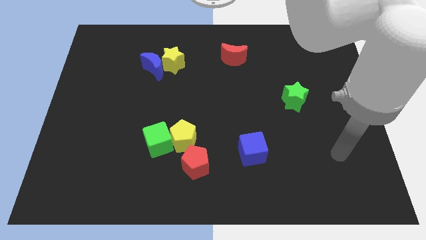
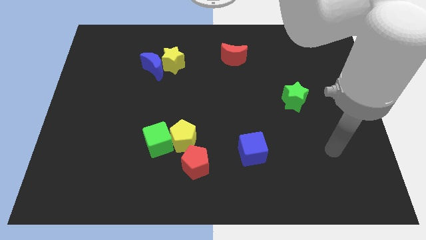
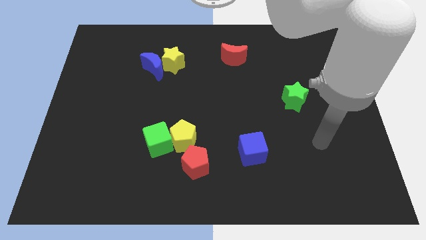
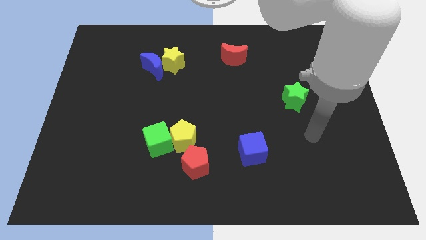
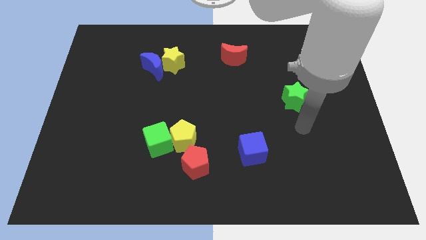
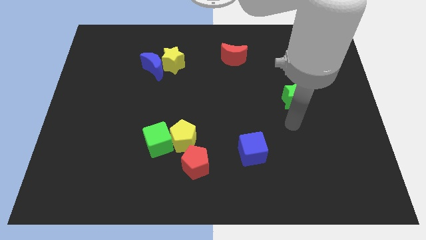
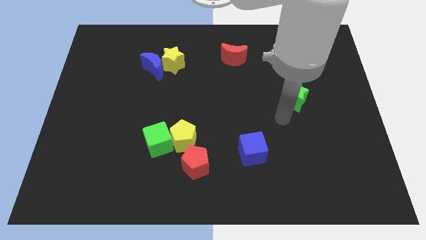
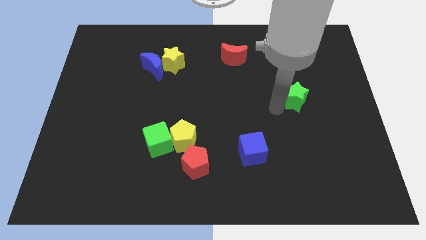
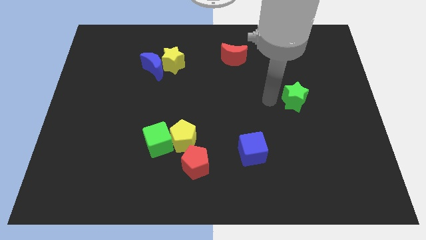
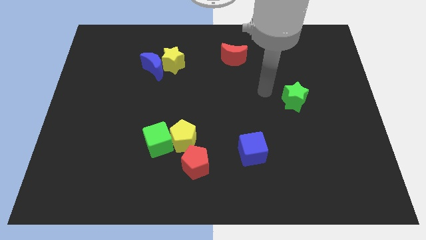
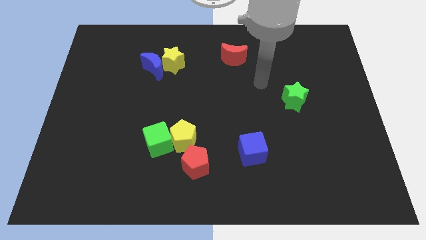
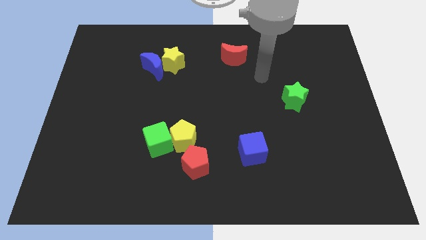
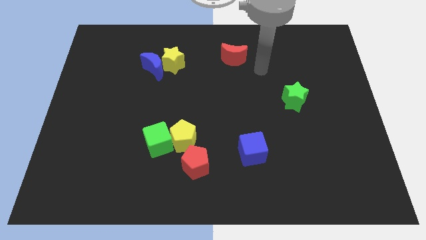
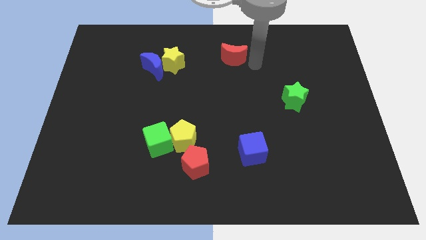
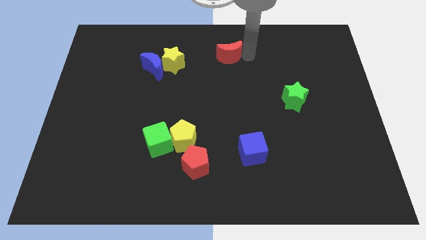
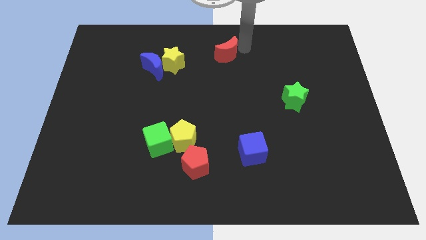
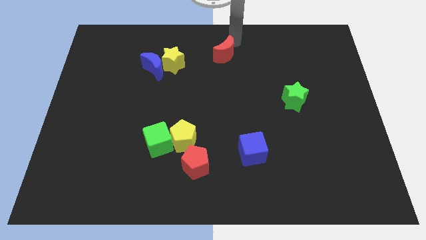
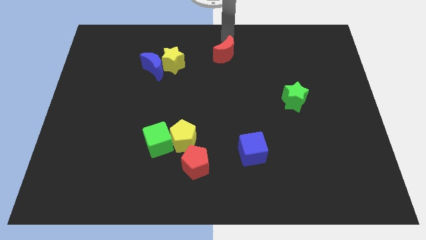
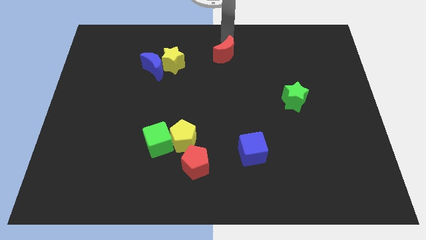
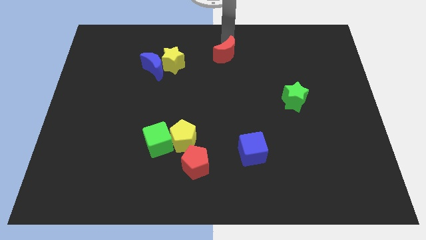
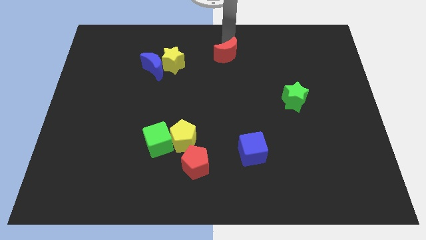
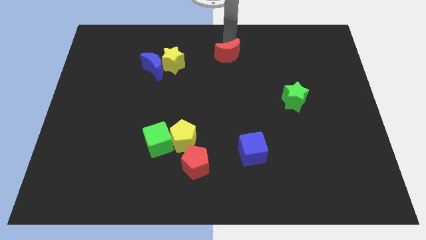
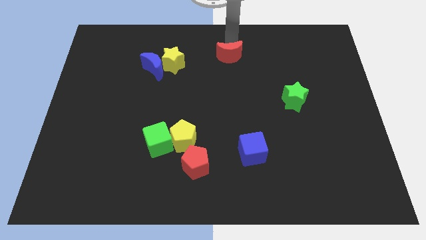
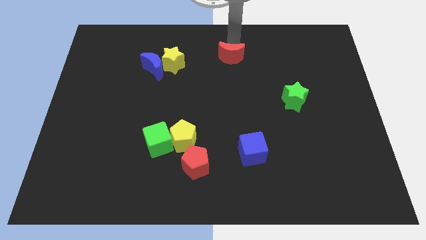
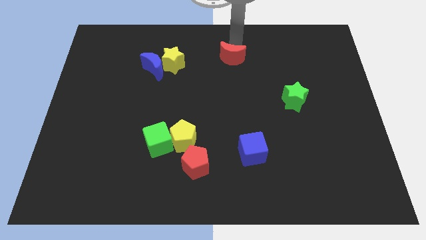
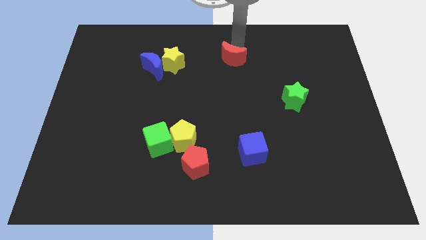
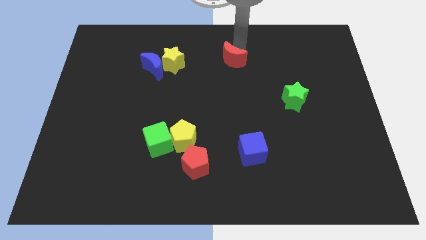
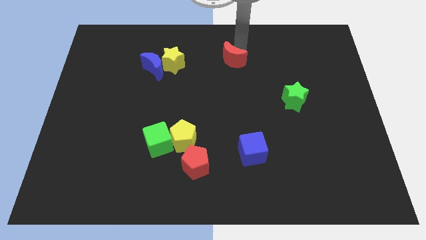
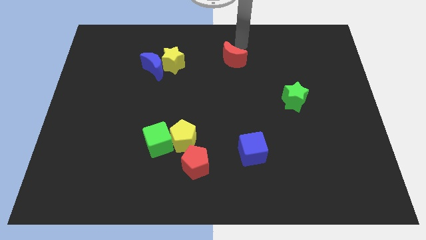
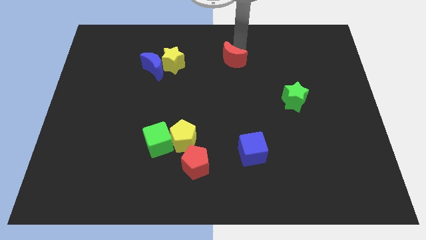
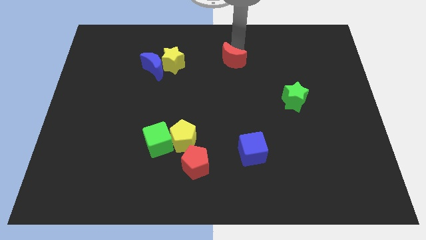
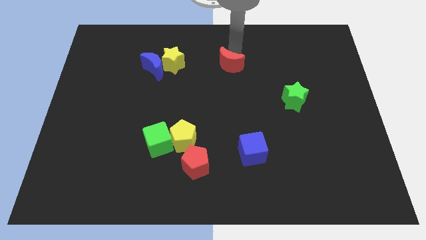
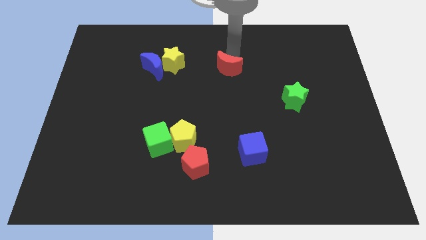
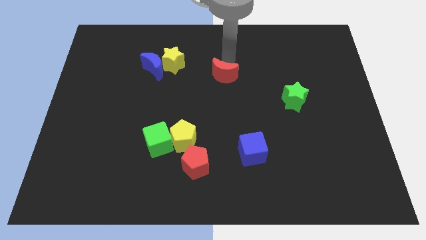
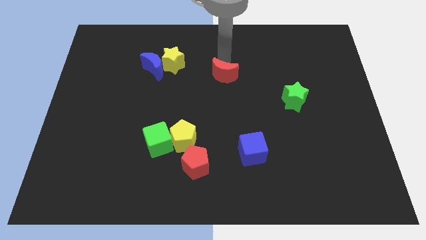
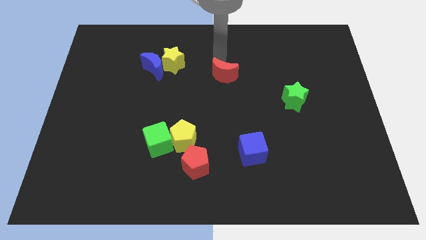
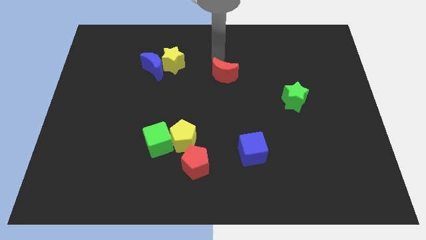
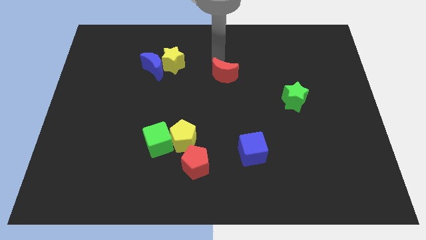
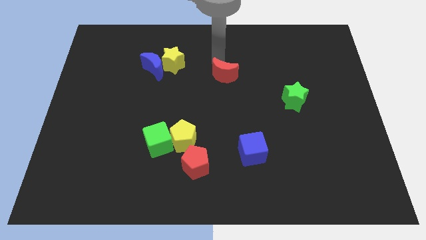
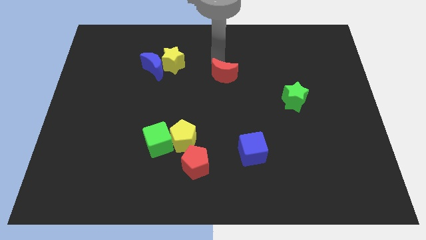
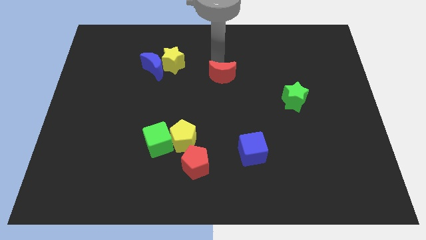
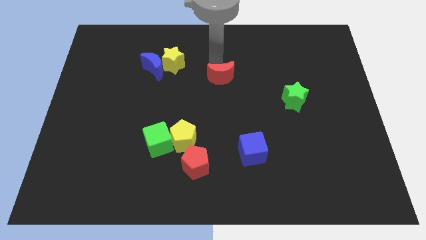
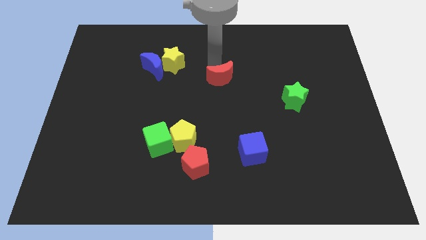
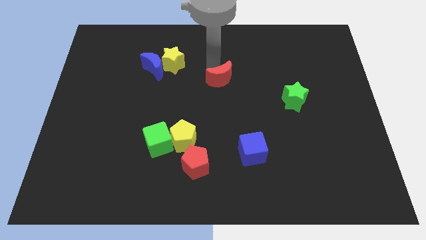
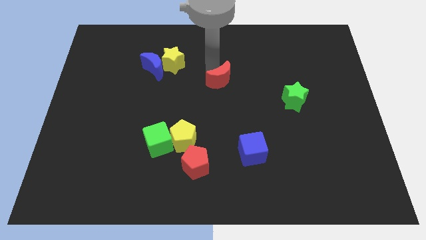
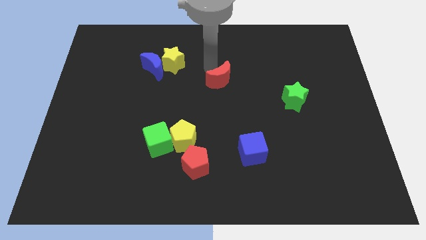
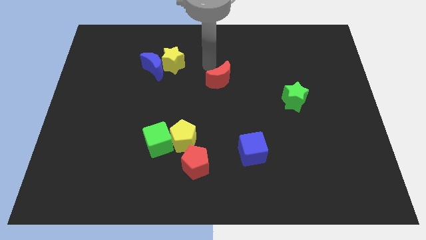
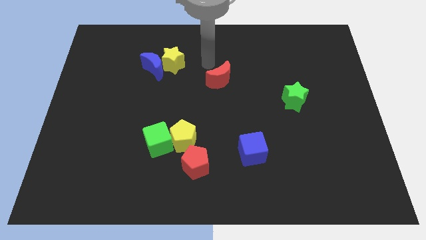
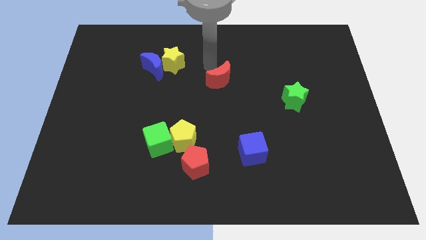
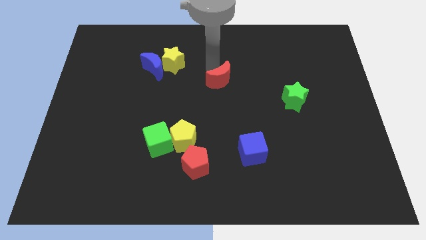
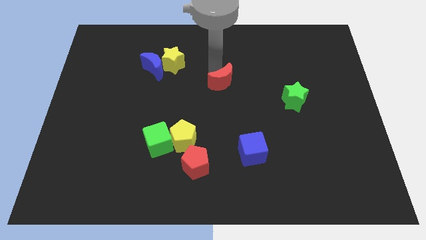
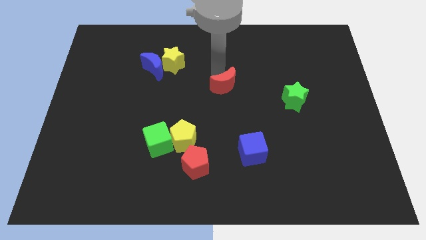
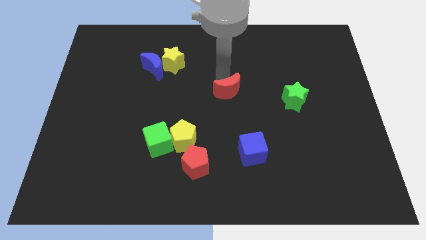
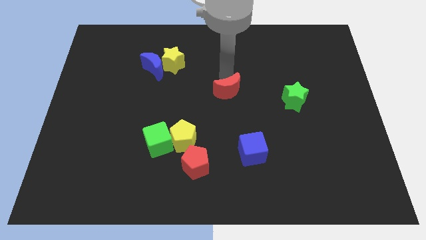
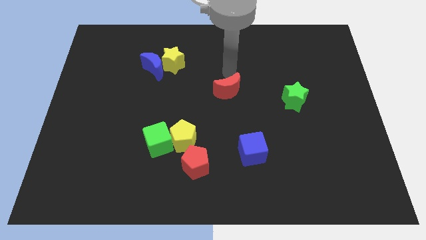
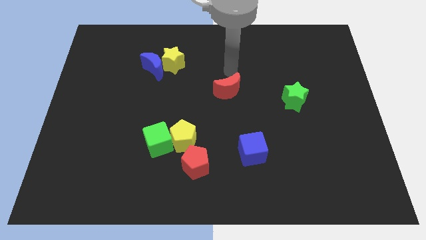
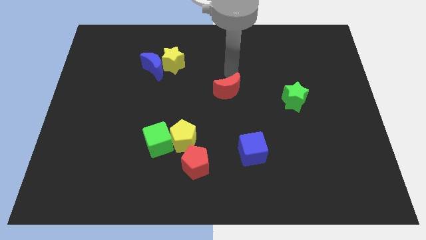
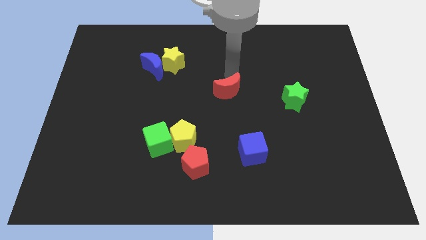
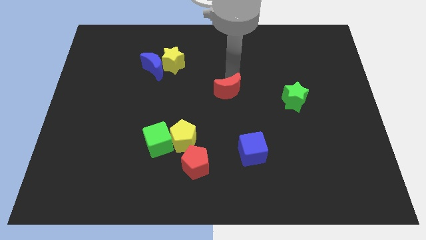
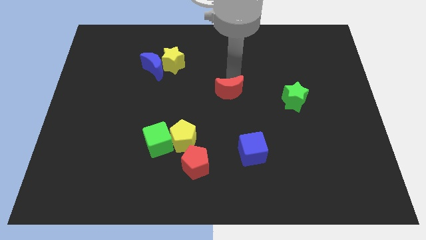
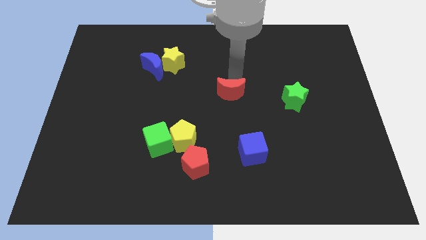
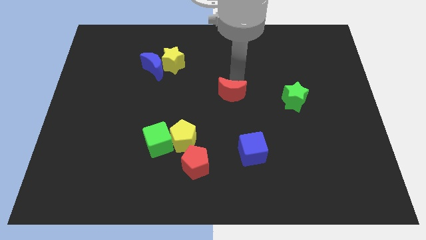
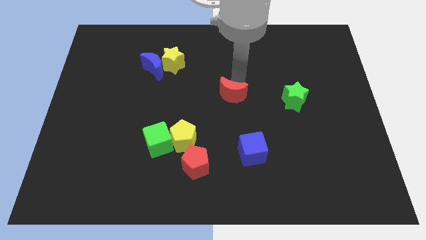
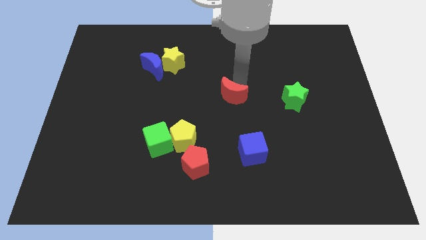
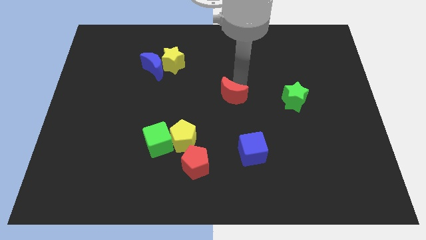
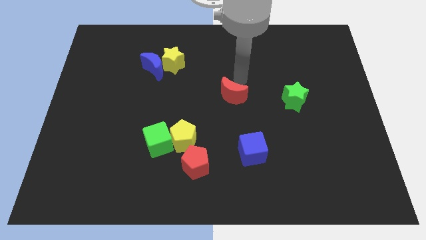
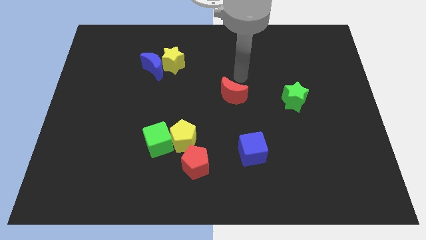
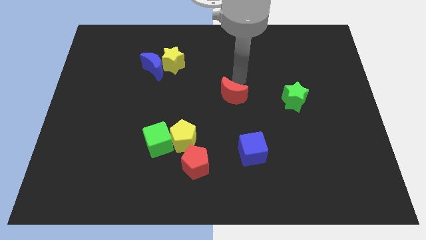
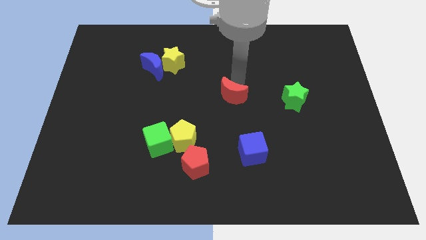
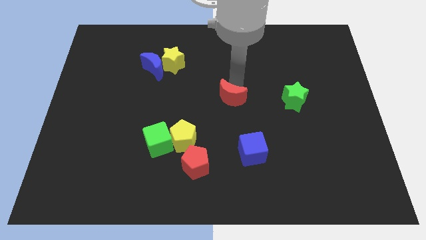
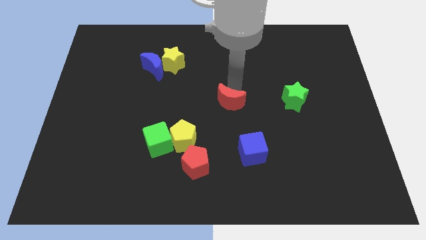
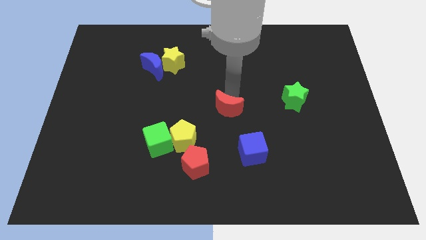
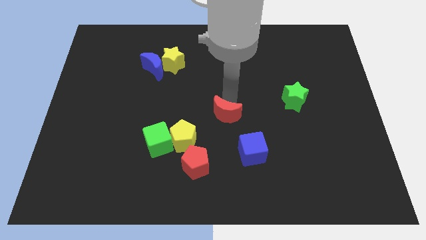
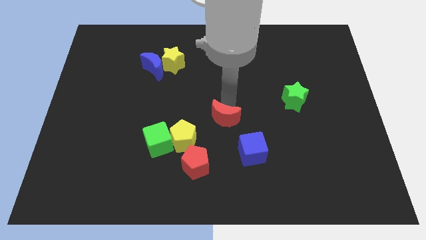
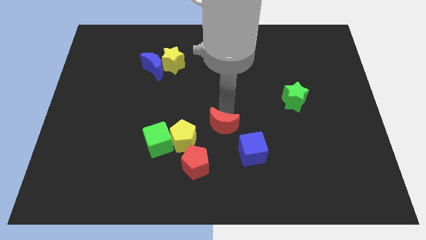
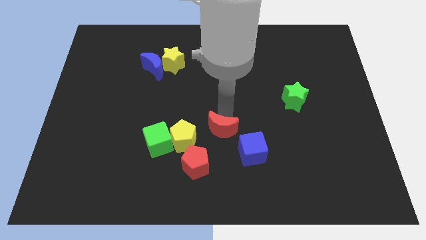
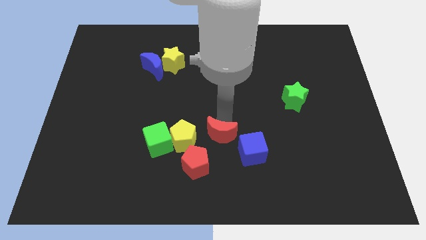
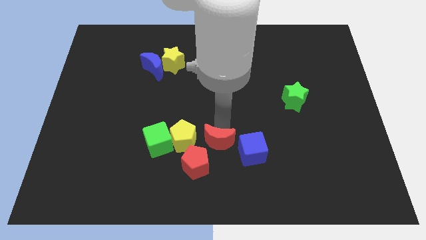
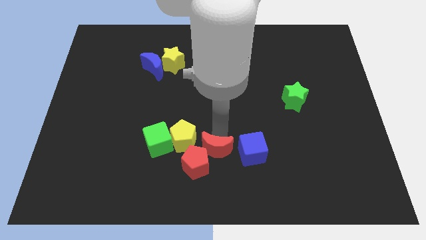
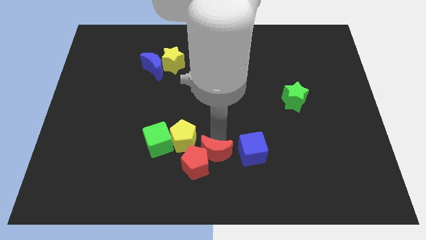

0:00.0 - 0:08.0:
slide the red moon to the bottom
